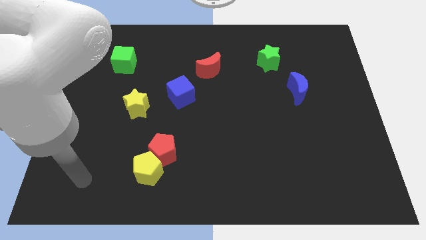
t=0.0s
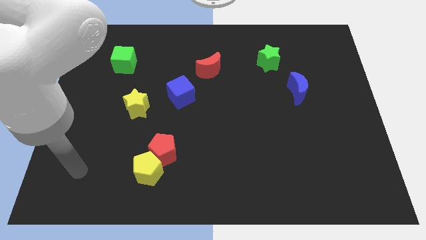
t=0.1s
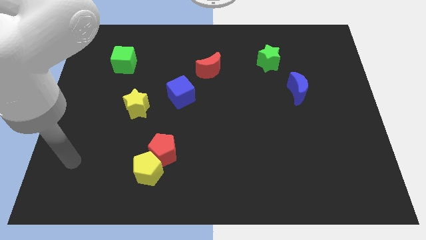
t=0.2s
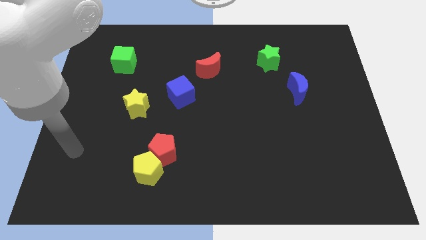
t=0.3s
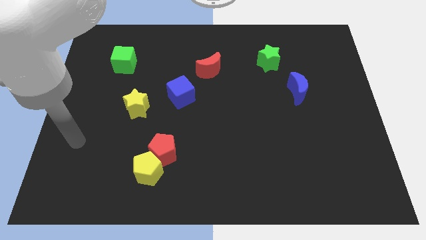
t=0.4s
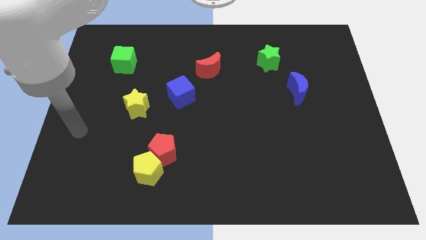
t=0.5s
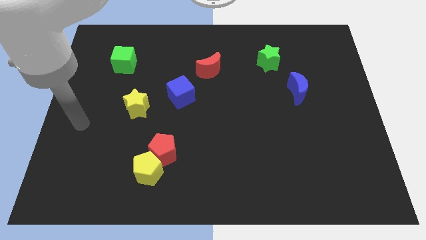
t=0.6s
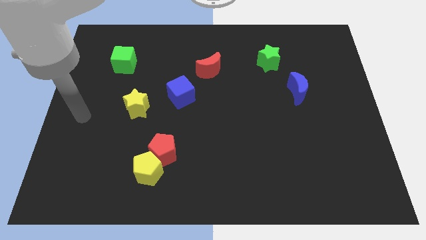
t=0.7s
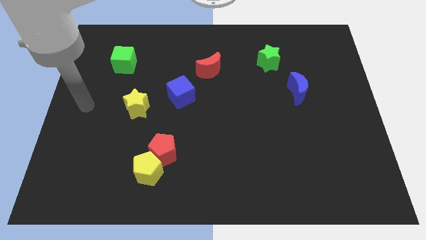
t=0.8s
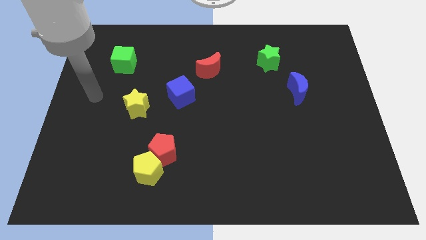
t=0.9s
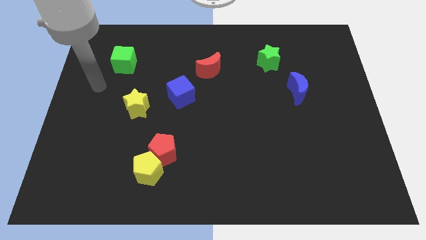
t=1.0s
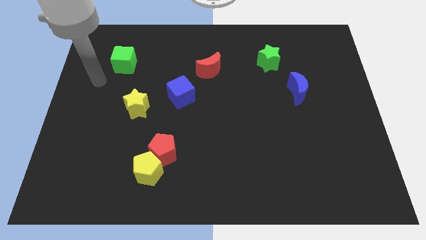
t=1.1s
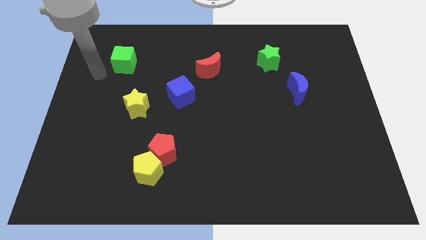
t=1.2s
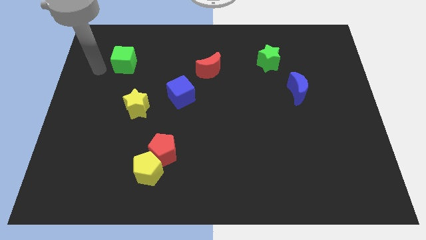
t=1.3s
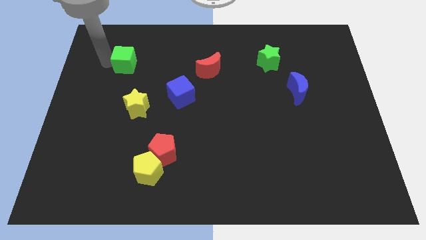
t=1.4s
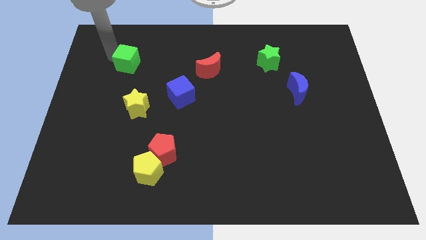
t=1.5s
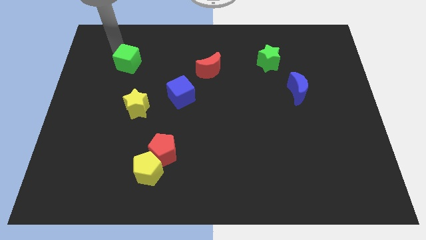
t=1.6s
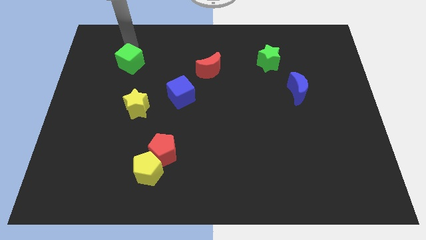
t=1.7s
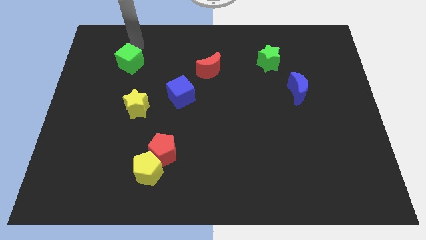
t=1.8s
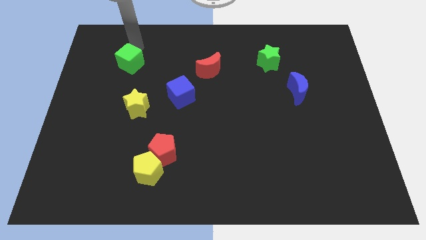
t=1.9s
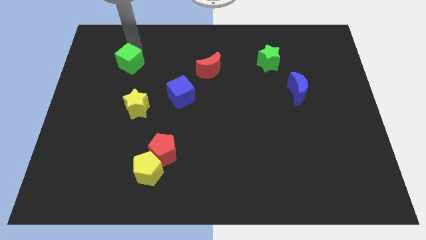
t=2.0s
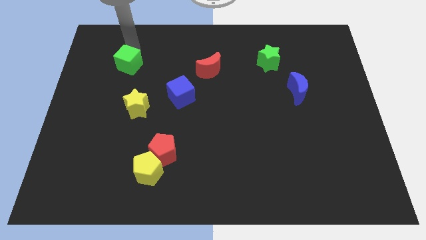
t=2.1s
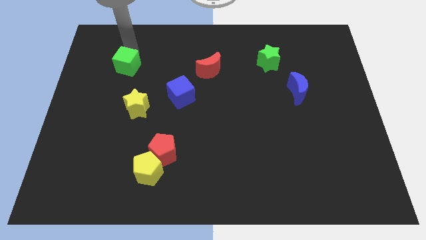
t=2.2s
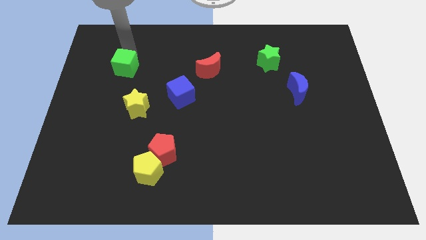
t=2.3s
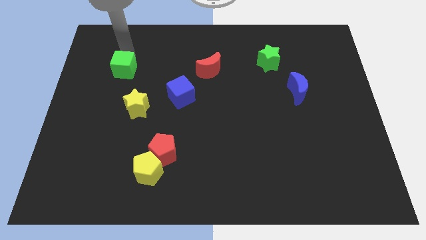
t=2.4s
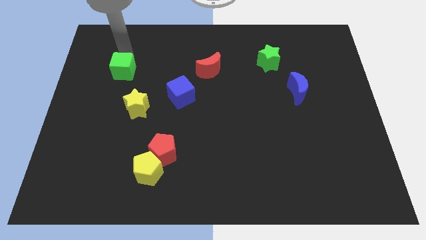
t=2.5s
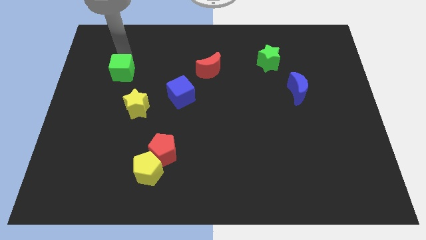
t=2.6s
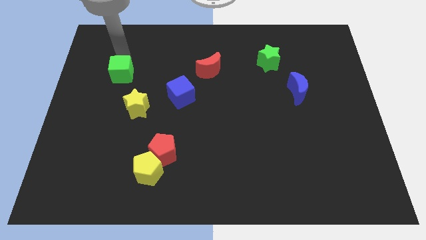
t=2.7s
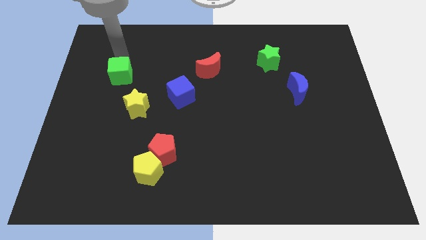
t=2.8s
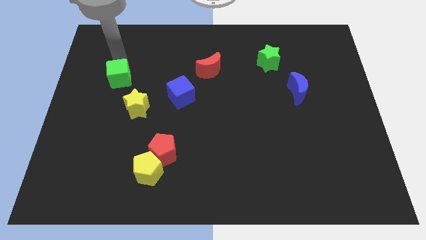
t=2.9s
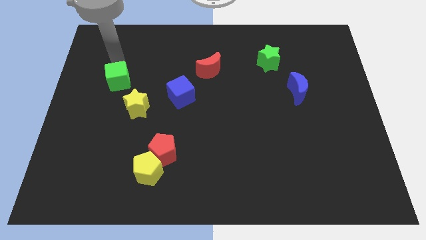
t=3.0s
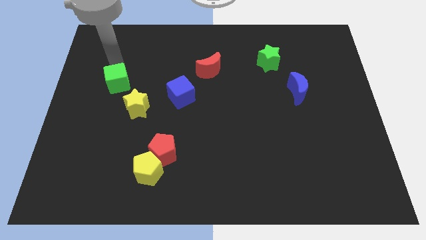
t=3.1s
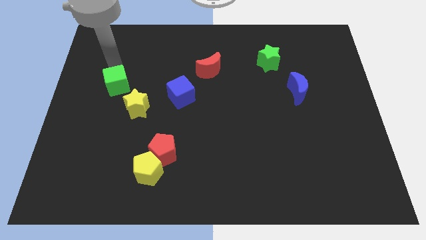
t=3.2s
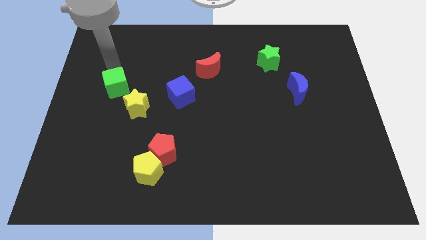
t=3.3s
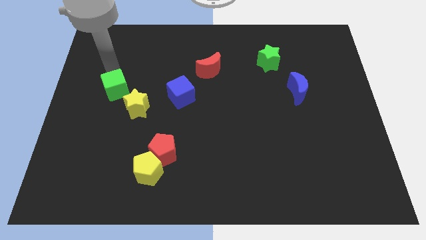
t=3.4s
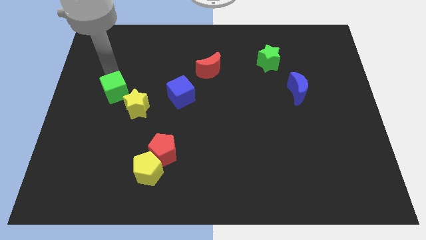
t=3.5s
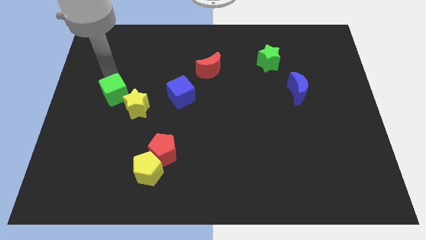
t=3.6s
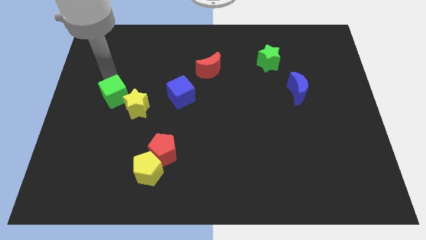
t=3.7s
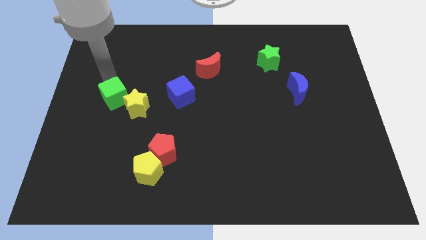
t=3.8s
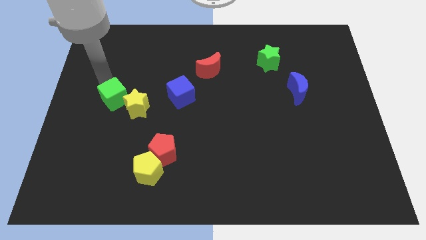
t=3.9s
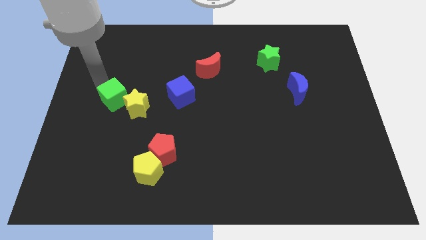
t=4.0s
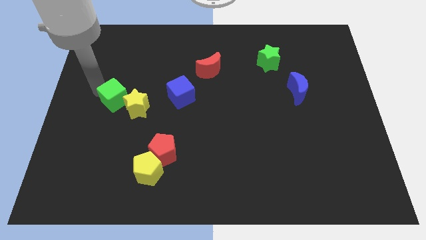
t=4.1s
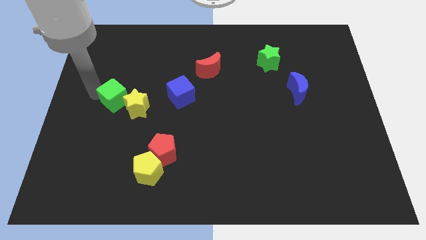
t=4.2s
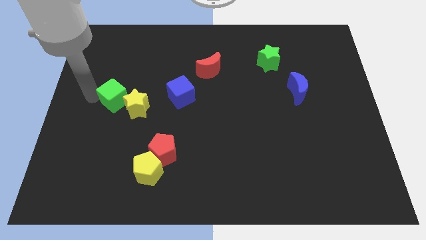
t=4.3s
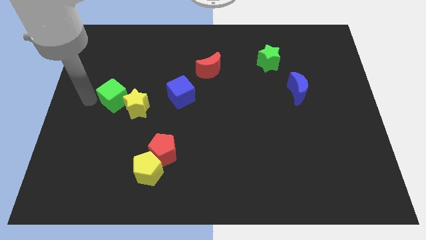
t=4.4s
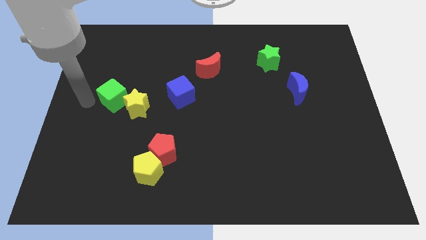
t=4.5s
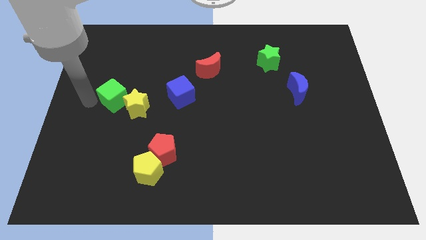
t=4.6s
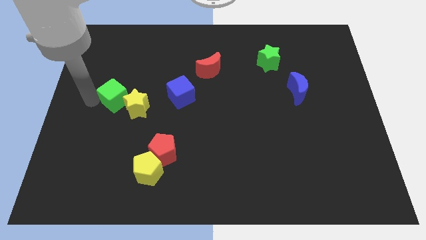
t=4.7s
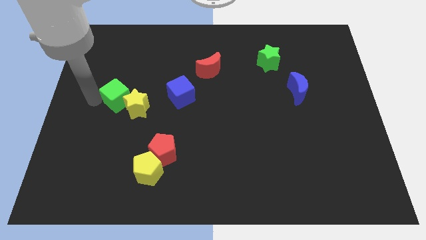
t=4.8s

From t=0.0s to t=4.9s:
slide the green cube towards the yellow star

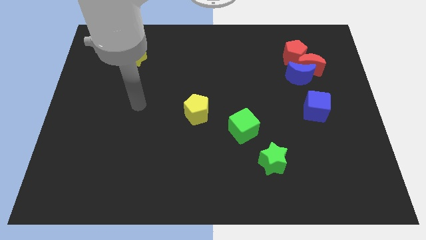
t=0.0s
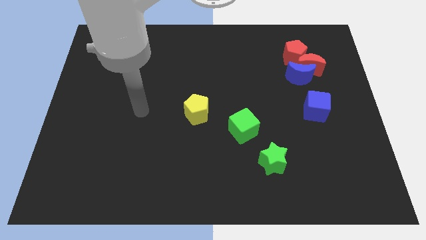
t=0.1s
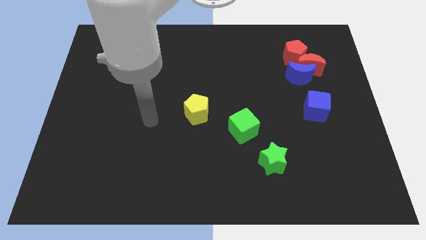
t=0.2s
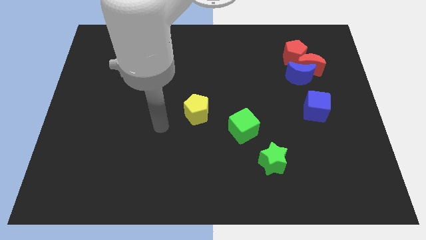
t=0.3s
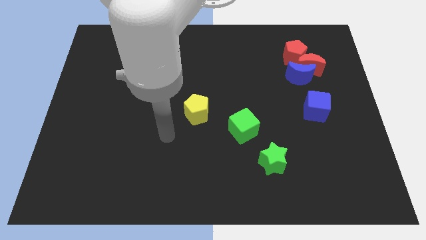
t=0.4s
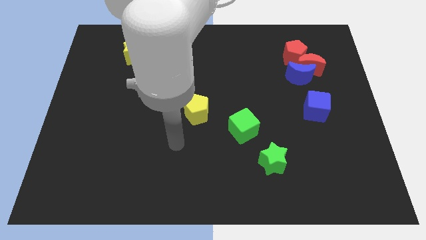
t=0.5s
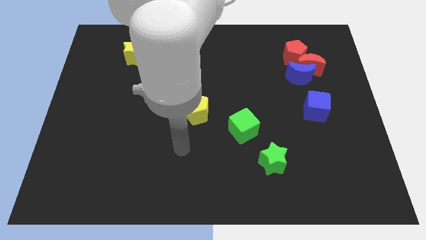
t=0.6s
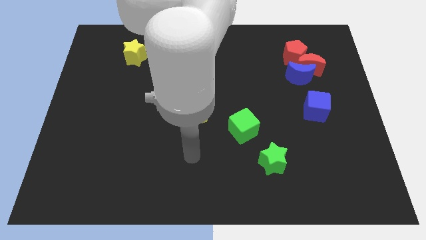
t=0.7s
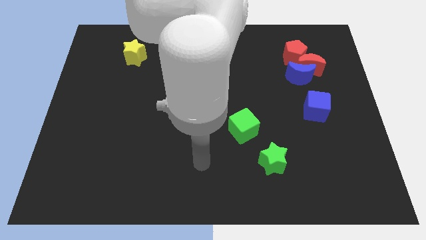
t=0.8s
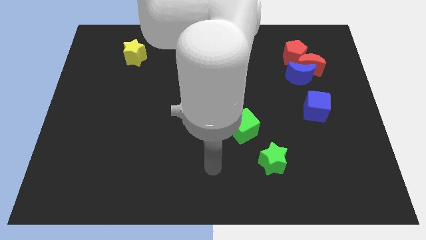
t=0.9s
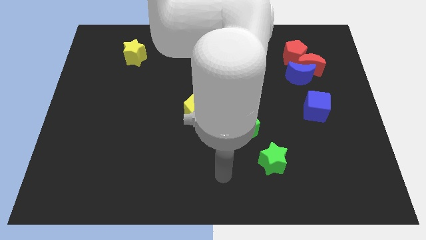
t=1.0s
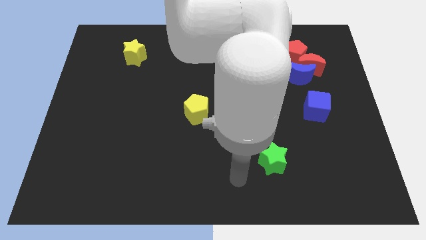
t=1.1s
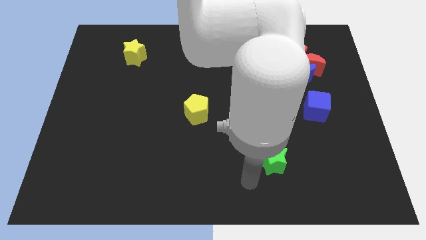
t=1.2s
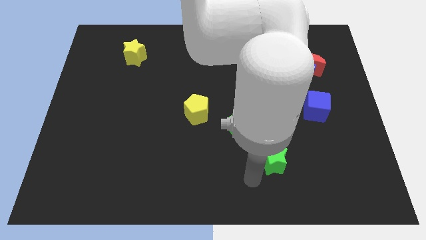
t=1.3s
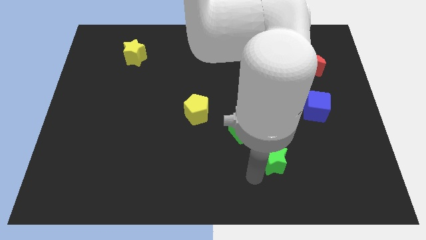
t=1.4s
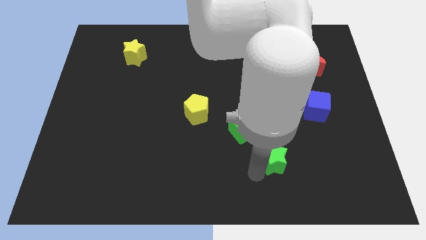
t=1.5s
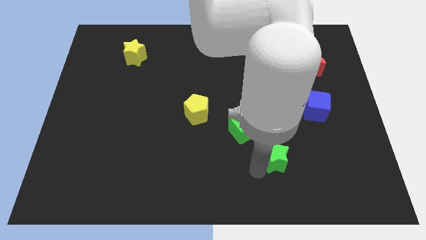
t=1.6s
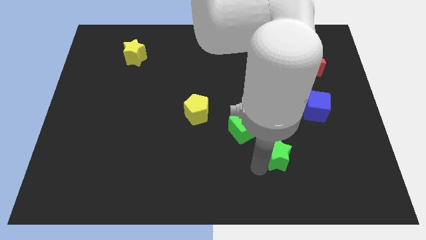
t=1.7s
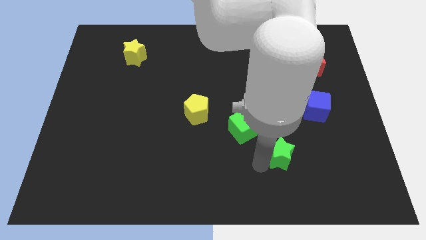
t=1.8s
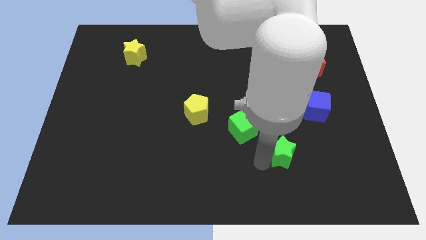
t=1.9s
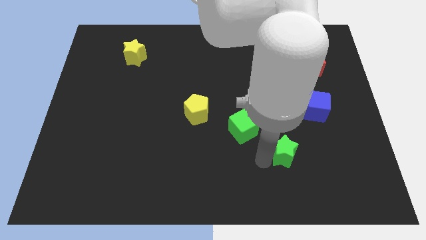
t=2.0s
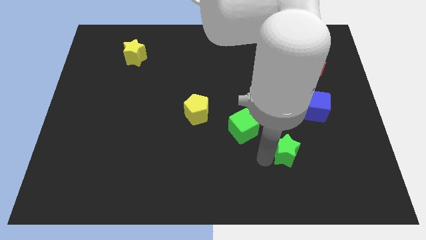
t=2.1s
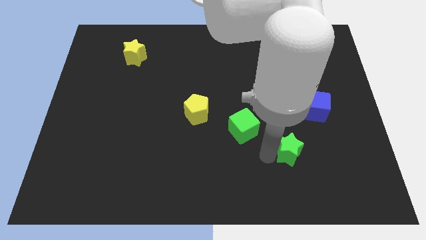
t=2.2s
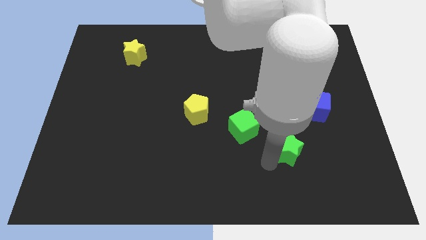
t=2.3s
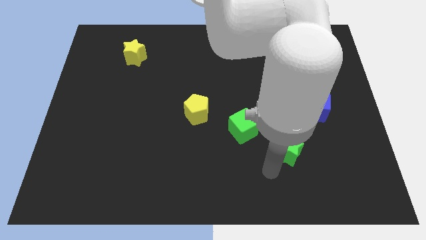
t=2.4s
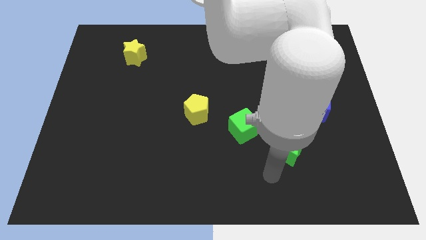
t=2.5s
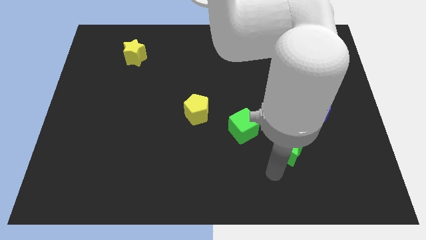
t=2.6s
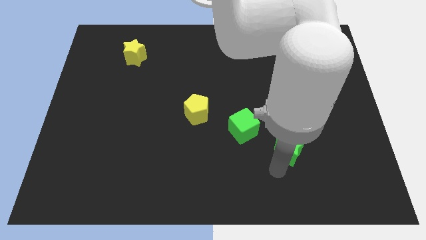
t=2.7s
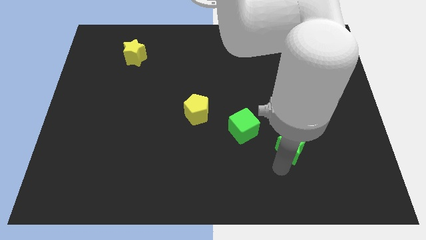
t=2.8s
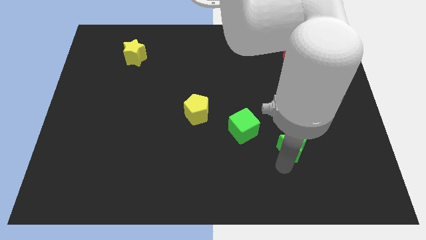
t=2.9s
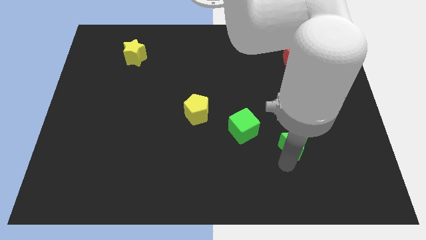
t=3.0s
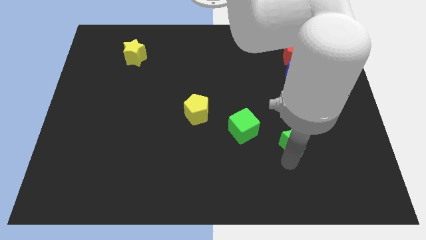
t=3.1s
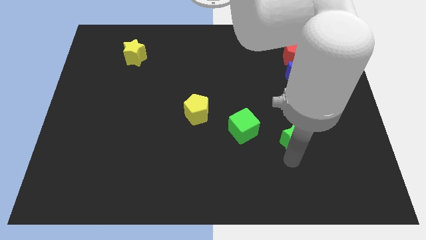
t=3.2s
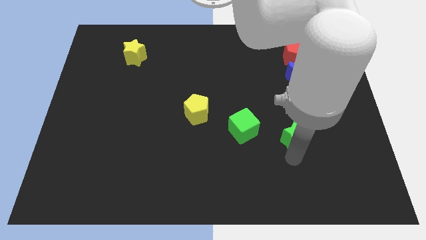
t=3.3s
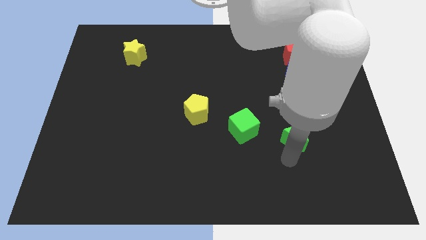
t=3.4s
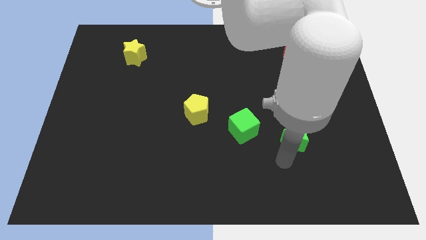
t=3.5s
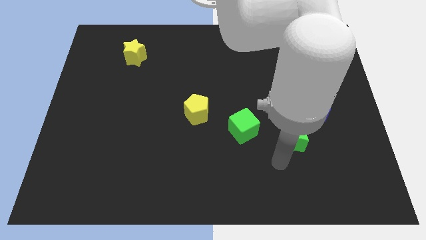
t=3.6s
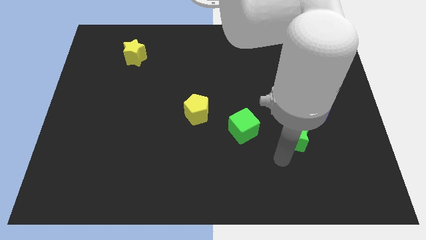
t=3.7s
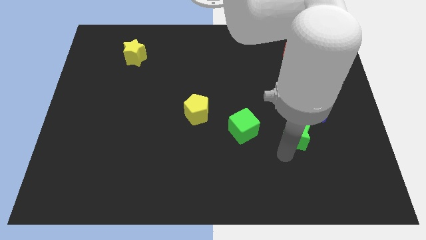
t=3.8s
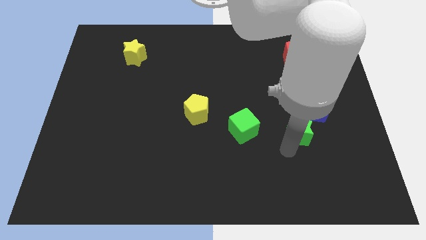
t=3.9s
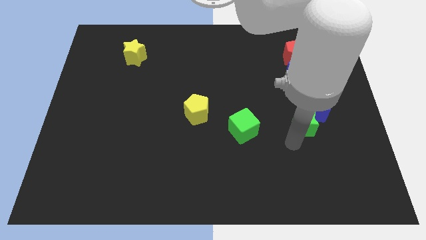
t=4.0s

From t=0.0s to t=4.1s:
move the green star to the blue cube
